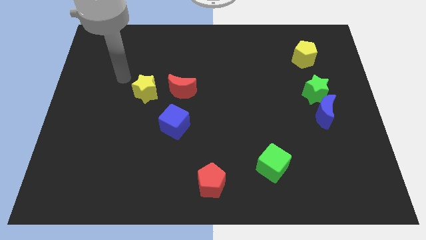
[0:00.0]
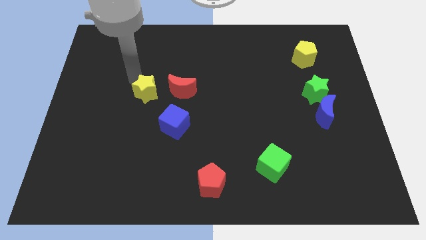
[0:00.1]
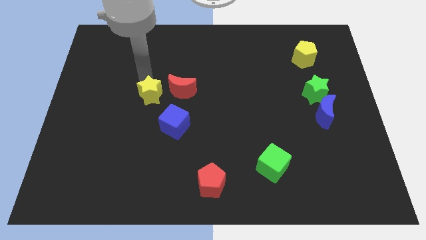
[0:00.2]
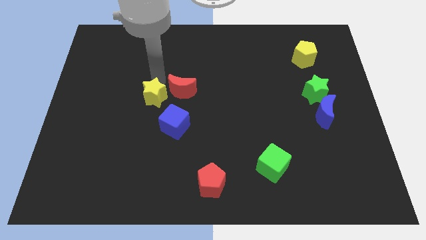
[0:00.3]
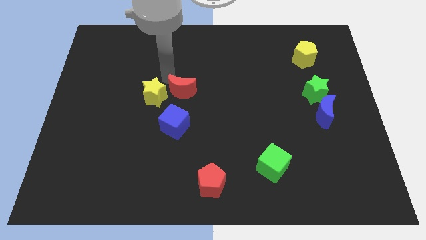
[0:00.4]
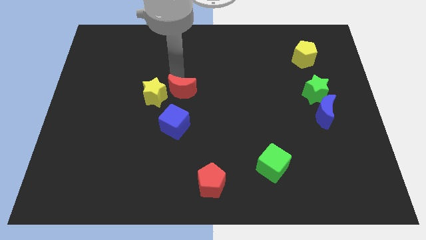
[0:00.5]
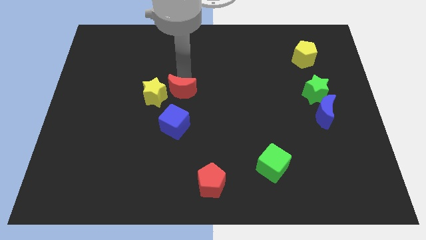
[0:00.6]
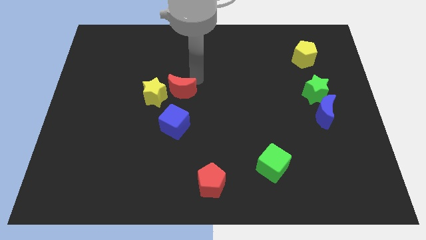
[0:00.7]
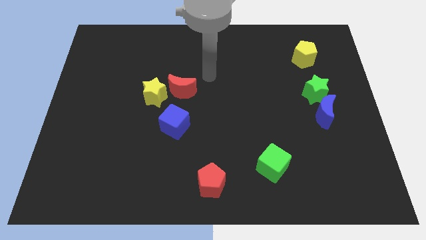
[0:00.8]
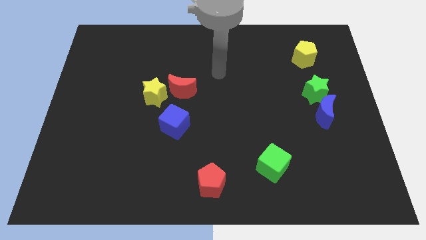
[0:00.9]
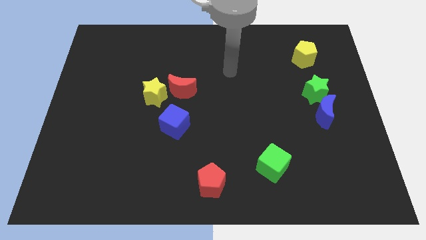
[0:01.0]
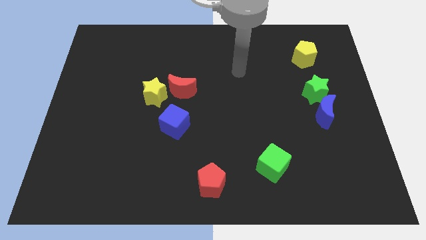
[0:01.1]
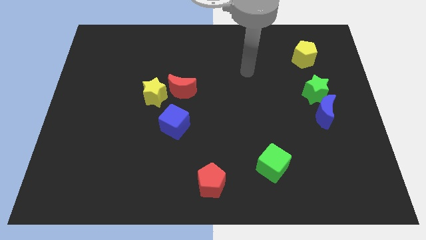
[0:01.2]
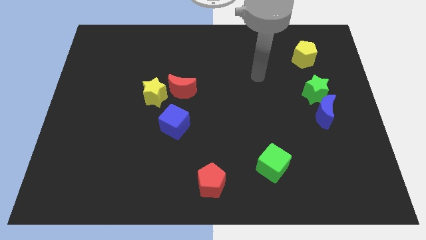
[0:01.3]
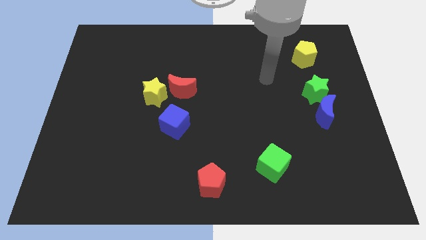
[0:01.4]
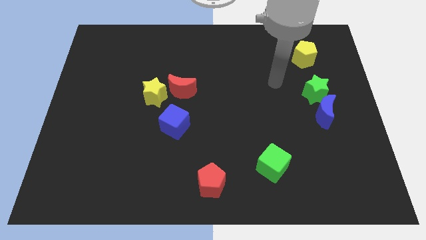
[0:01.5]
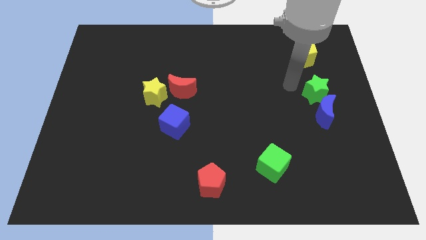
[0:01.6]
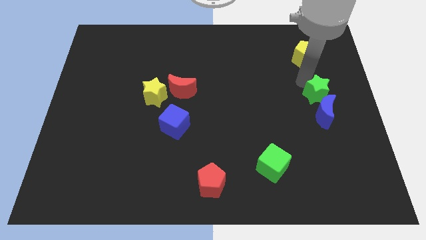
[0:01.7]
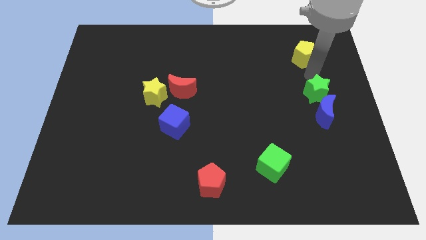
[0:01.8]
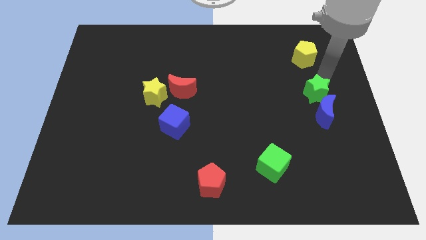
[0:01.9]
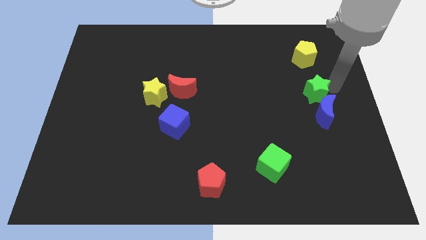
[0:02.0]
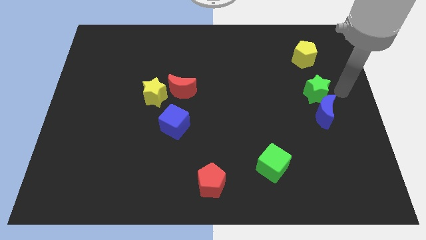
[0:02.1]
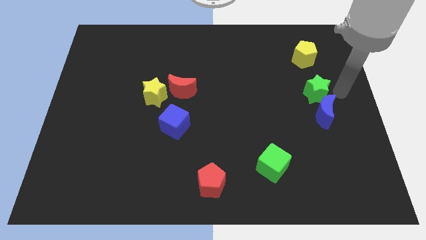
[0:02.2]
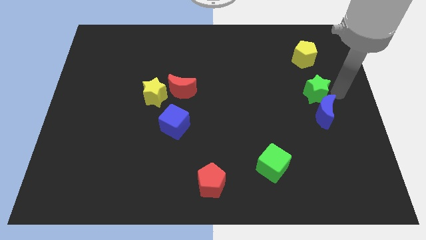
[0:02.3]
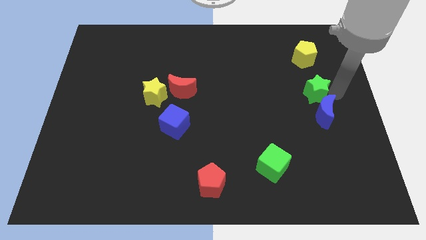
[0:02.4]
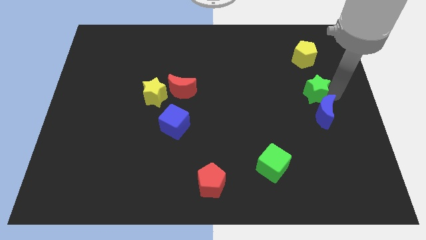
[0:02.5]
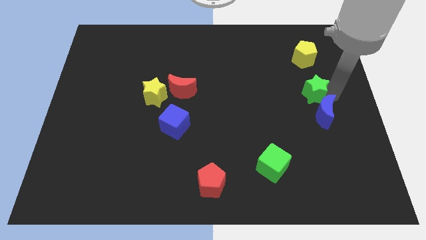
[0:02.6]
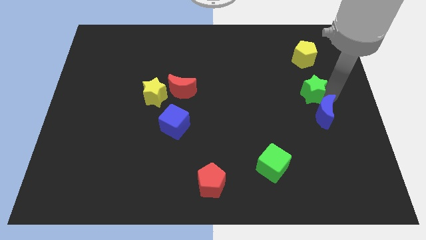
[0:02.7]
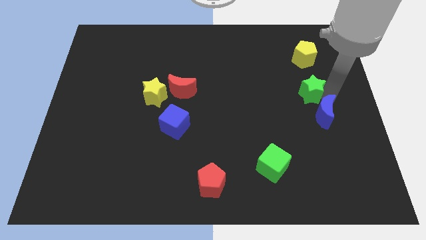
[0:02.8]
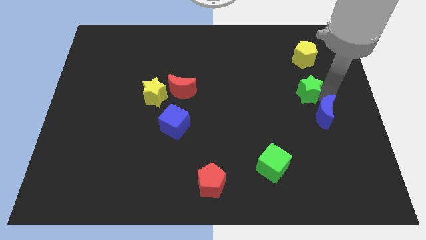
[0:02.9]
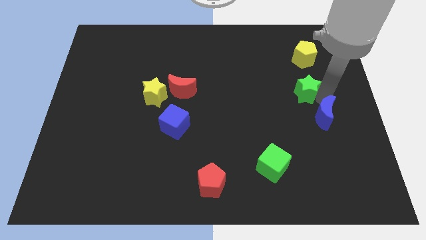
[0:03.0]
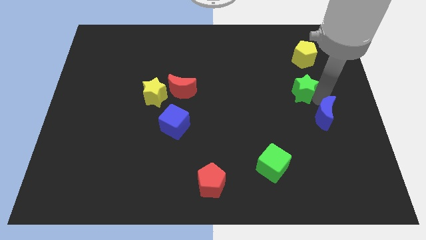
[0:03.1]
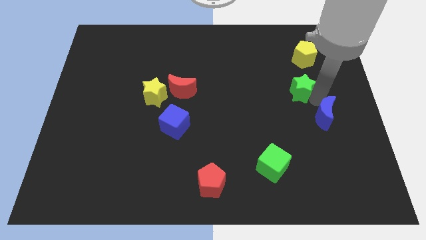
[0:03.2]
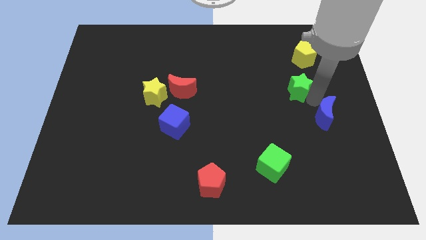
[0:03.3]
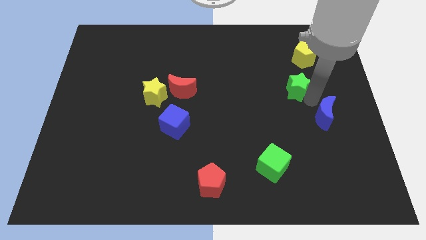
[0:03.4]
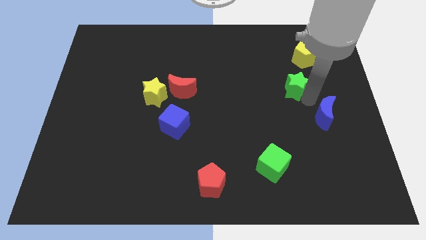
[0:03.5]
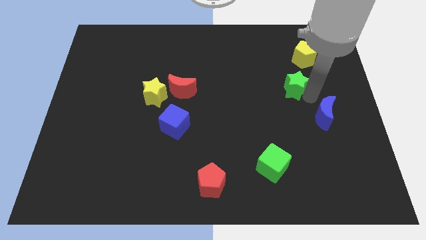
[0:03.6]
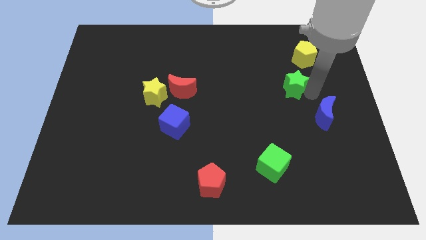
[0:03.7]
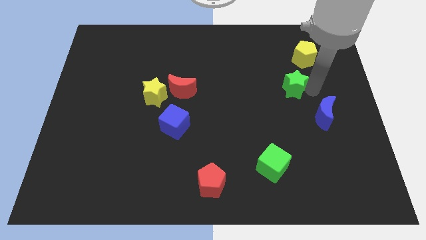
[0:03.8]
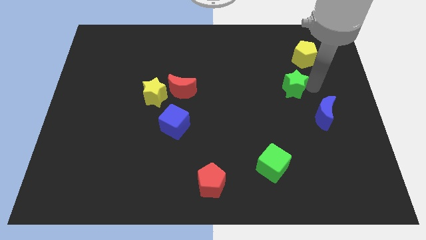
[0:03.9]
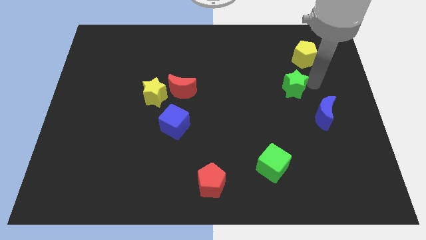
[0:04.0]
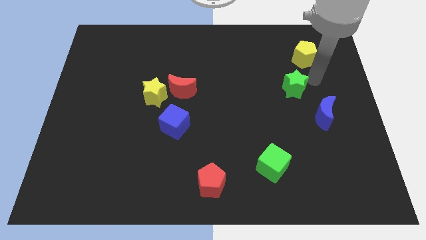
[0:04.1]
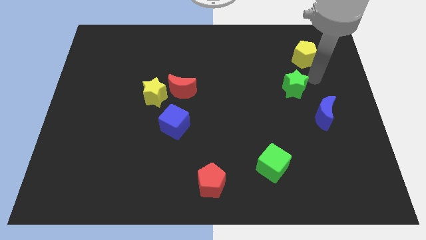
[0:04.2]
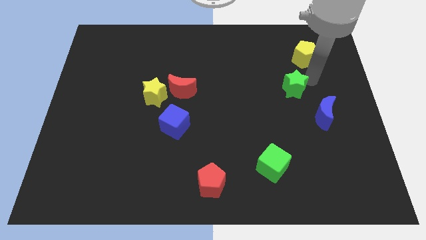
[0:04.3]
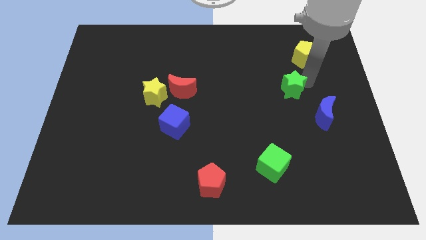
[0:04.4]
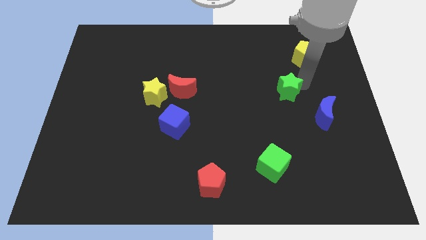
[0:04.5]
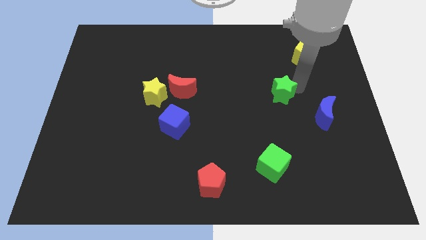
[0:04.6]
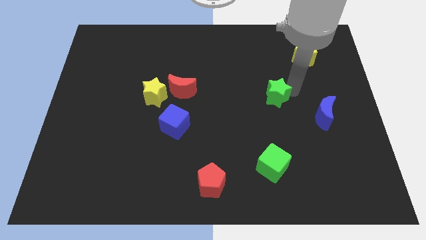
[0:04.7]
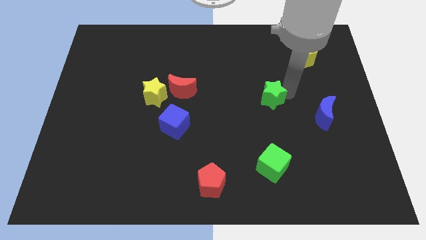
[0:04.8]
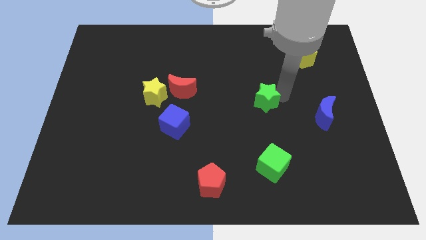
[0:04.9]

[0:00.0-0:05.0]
move the green star to the center of the board

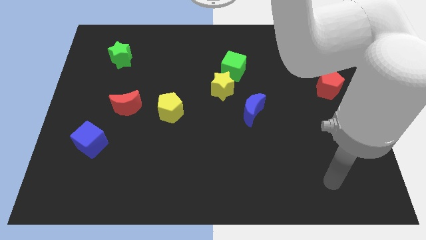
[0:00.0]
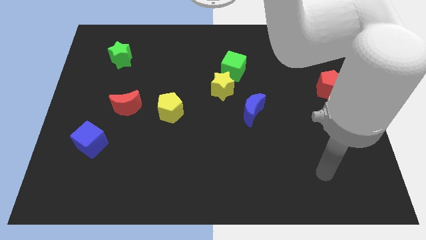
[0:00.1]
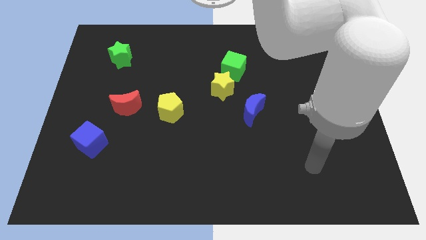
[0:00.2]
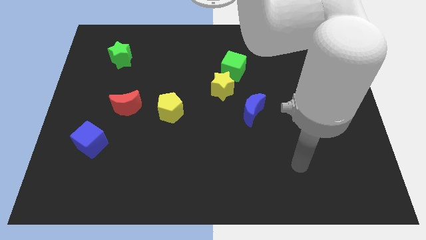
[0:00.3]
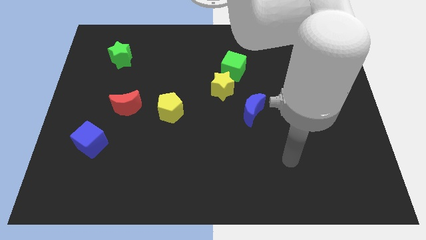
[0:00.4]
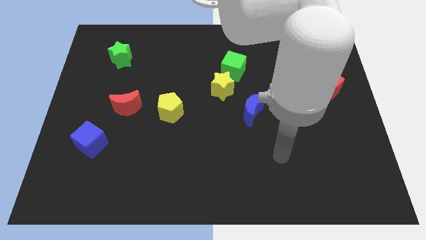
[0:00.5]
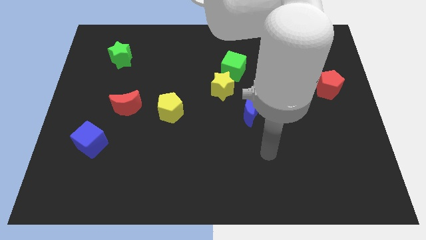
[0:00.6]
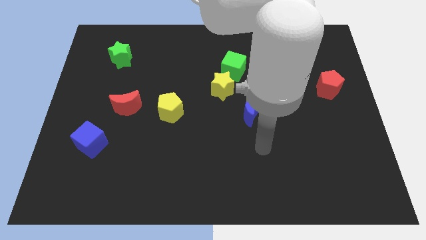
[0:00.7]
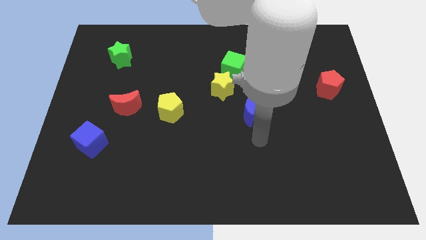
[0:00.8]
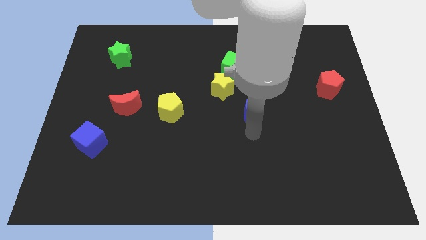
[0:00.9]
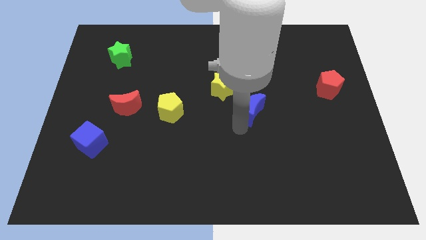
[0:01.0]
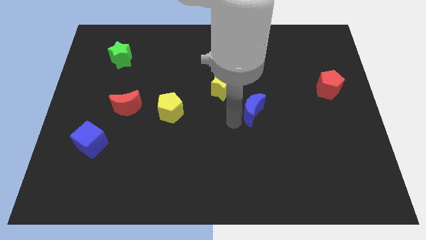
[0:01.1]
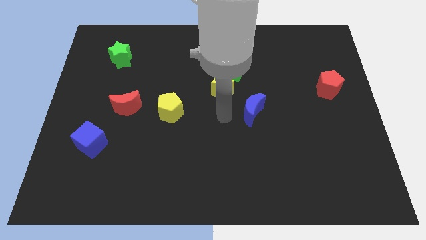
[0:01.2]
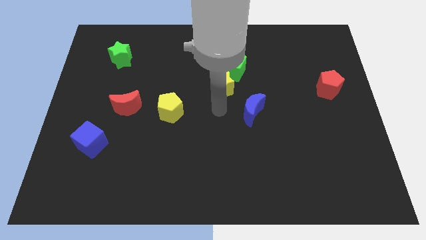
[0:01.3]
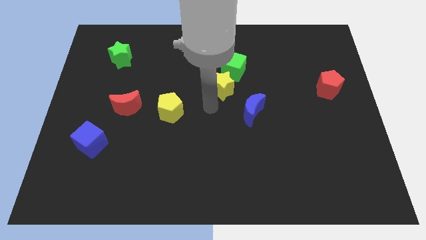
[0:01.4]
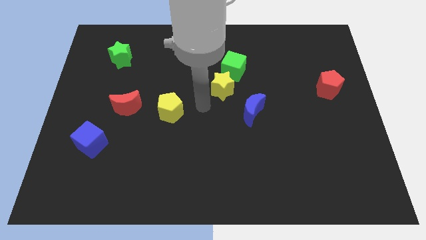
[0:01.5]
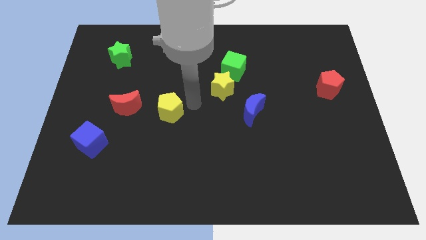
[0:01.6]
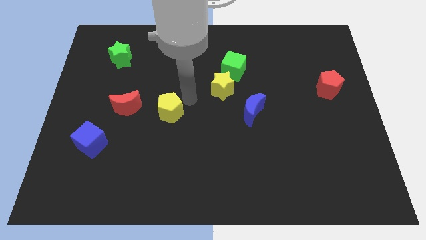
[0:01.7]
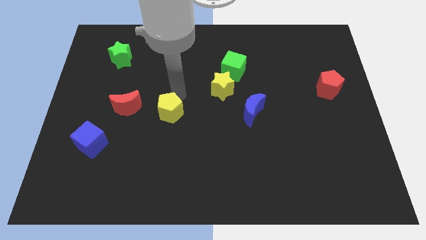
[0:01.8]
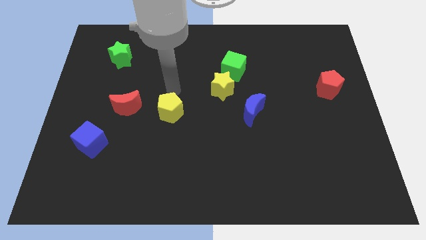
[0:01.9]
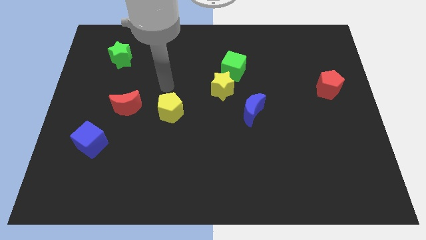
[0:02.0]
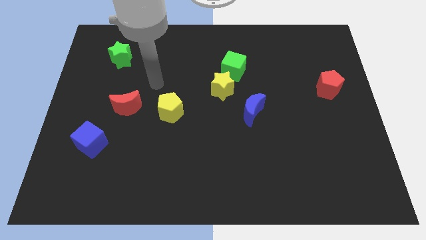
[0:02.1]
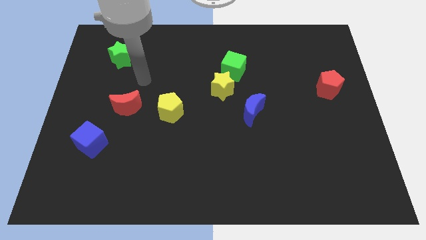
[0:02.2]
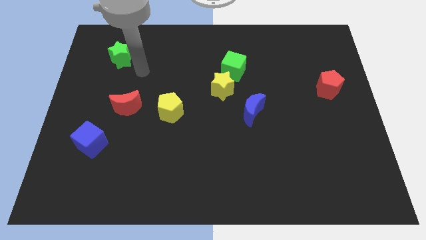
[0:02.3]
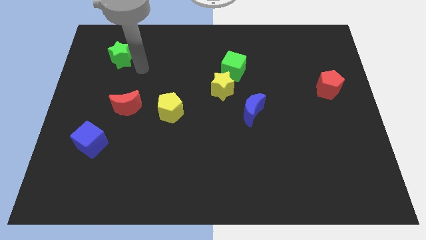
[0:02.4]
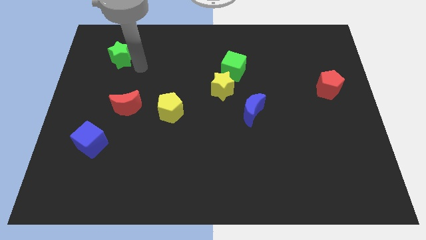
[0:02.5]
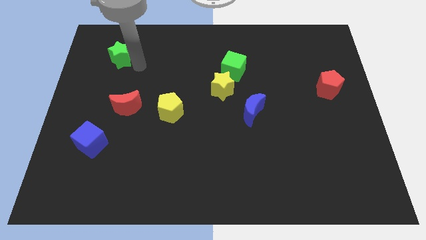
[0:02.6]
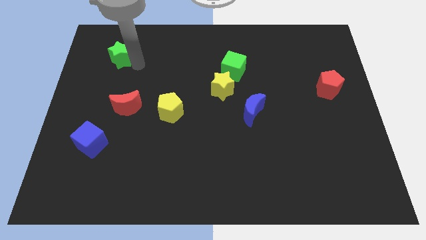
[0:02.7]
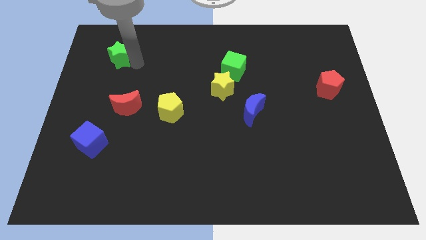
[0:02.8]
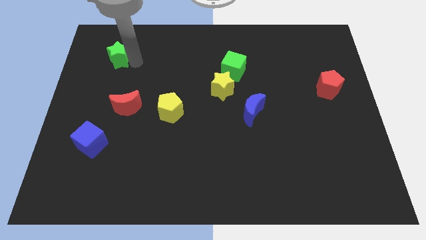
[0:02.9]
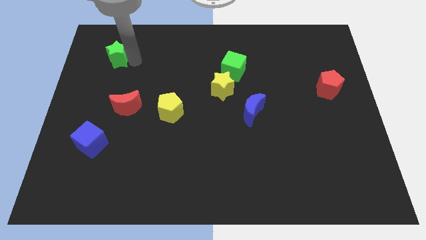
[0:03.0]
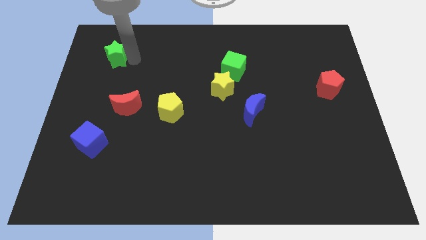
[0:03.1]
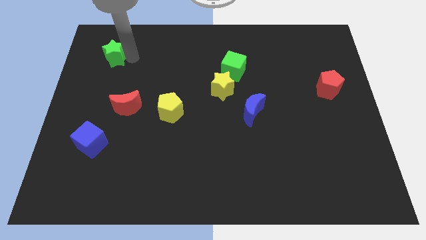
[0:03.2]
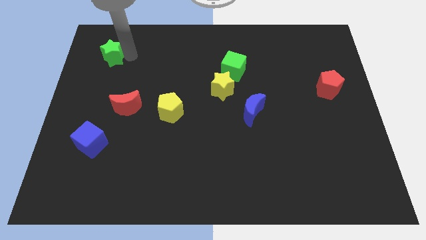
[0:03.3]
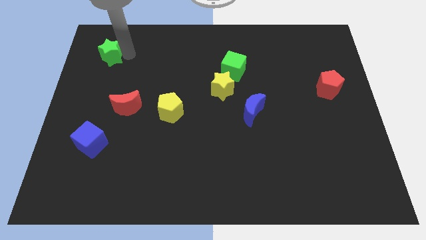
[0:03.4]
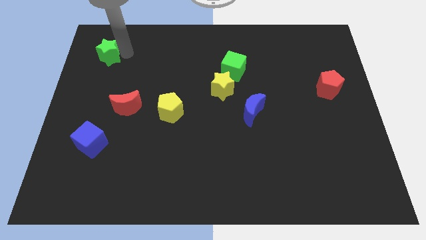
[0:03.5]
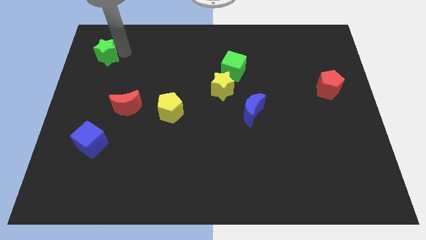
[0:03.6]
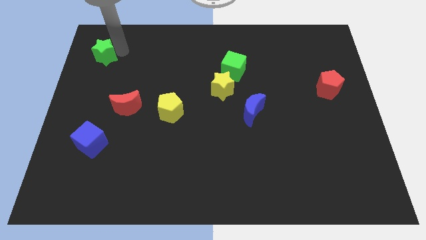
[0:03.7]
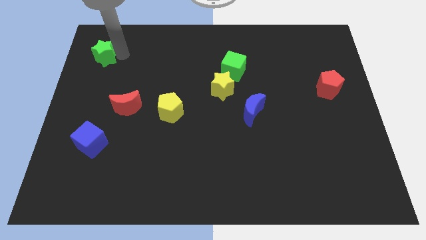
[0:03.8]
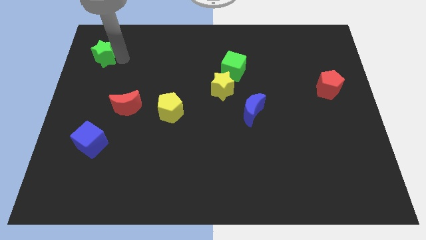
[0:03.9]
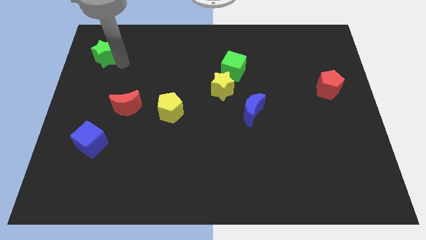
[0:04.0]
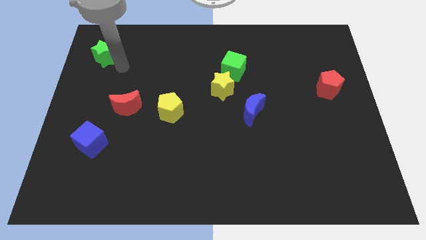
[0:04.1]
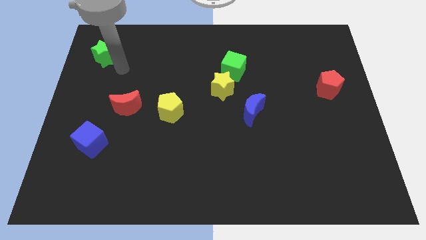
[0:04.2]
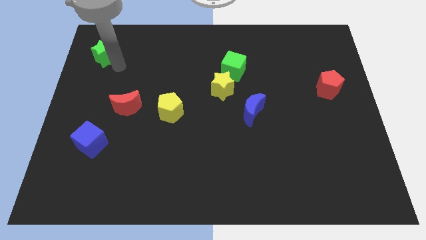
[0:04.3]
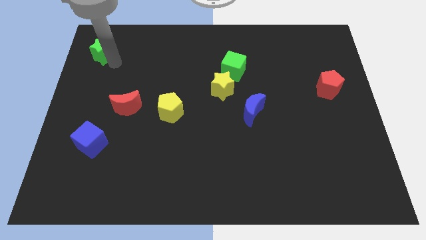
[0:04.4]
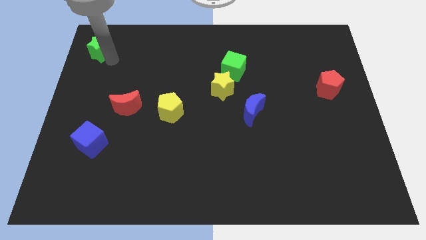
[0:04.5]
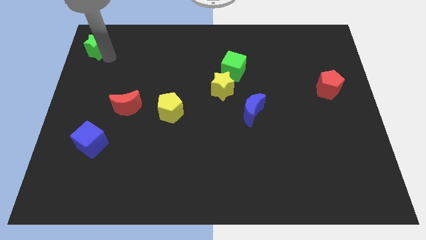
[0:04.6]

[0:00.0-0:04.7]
put the green star to the upper left corner
